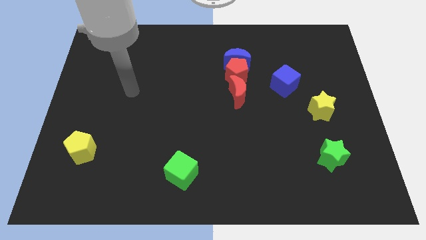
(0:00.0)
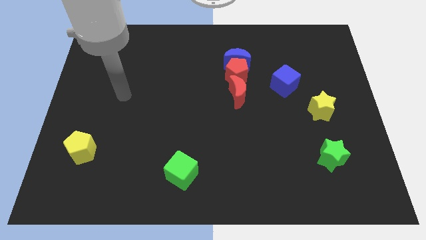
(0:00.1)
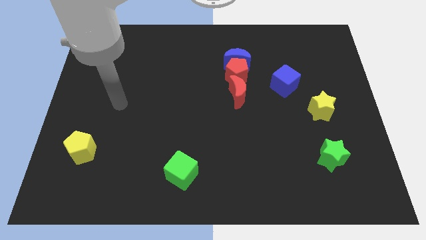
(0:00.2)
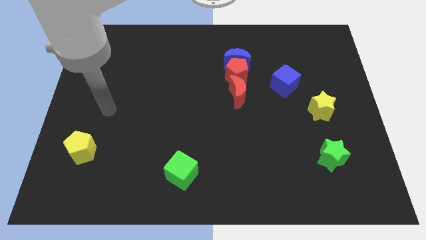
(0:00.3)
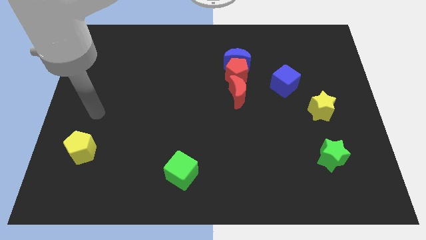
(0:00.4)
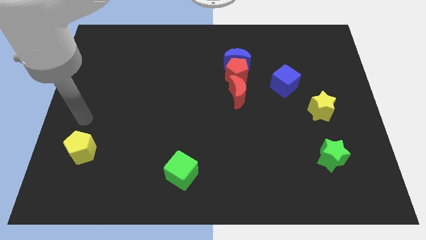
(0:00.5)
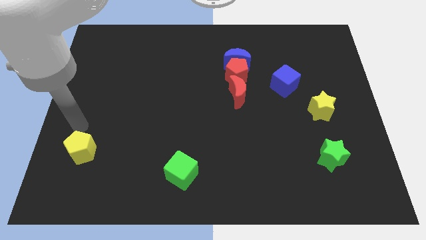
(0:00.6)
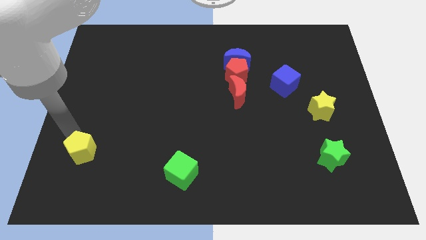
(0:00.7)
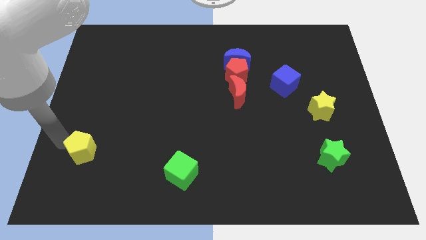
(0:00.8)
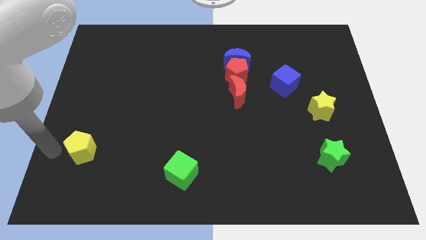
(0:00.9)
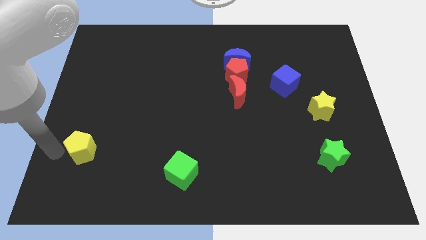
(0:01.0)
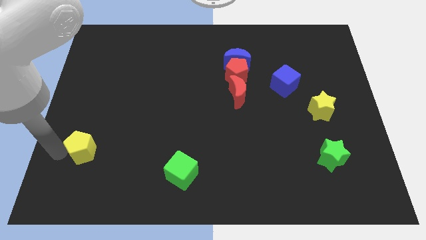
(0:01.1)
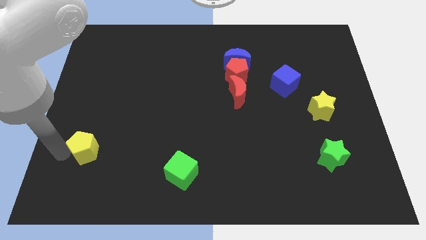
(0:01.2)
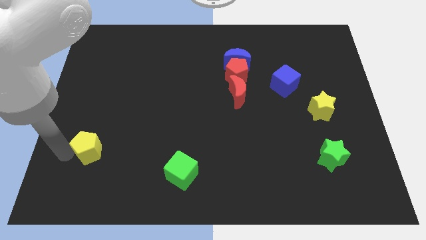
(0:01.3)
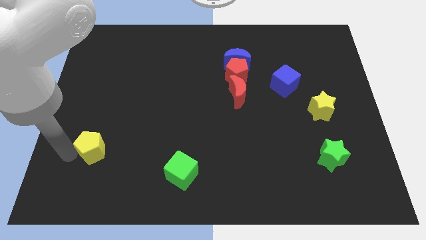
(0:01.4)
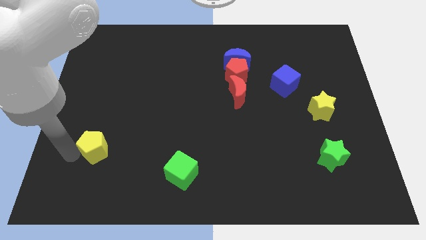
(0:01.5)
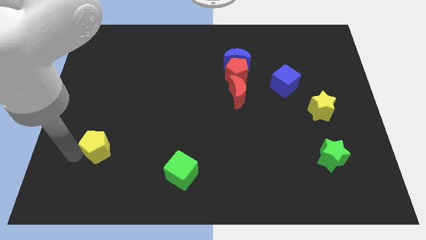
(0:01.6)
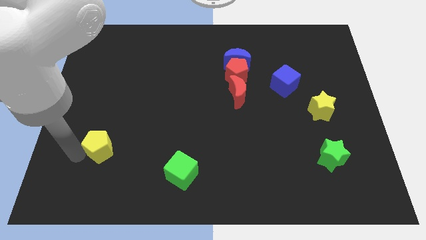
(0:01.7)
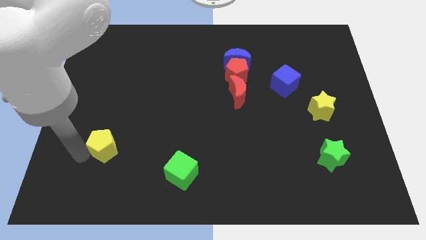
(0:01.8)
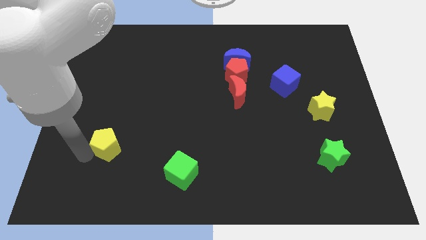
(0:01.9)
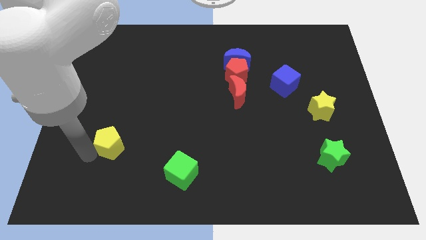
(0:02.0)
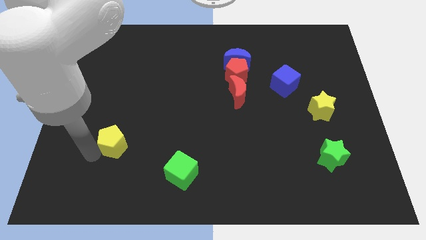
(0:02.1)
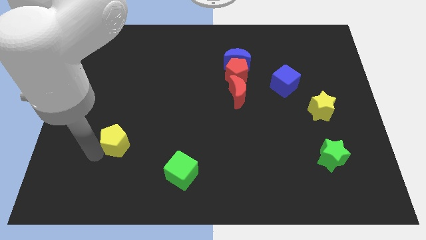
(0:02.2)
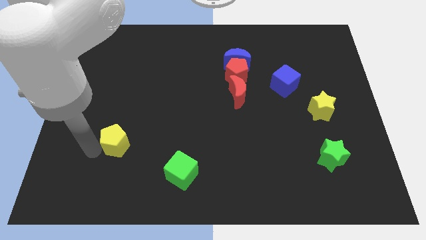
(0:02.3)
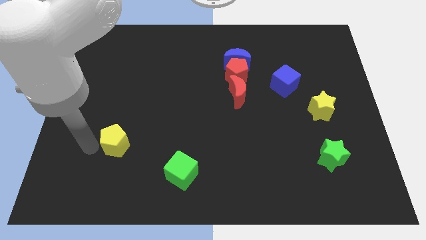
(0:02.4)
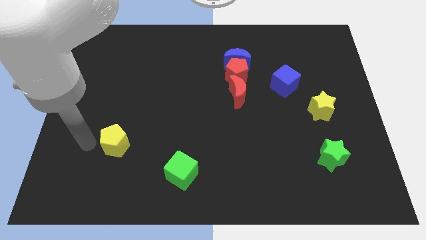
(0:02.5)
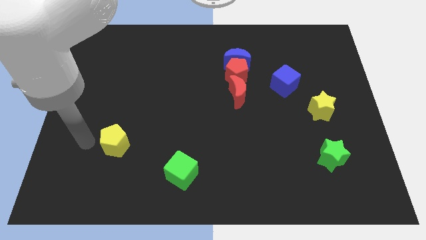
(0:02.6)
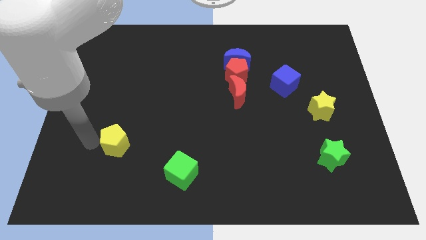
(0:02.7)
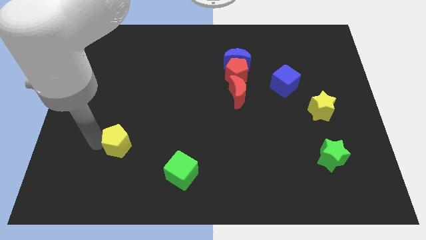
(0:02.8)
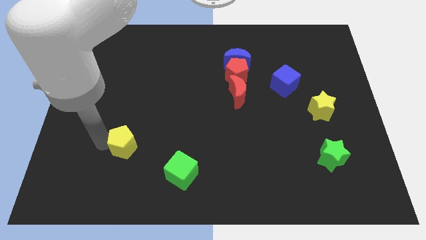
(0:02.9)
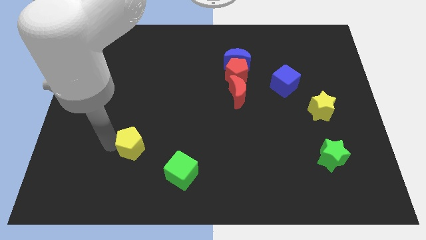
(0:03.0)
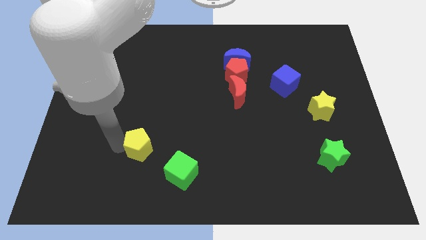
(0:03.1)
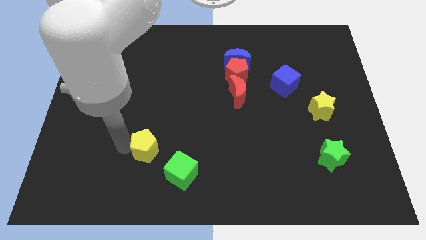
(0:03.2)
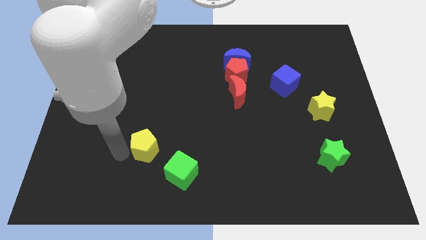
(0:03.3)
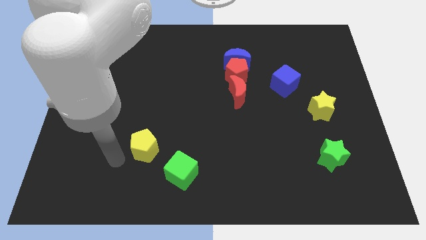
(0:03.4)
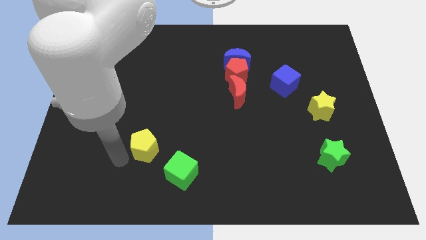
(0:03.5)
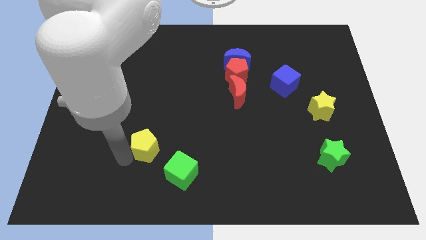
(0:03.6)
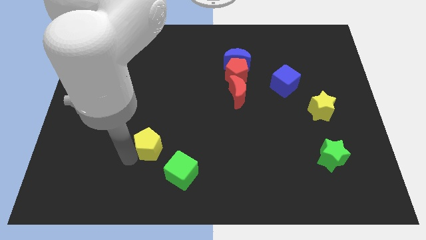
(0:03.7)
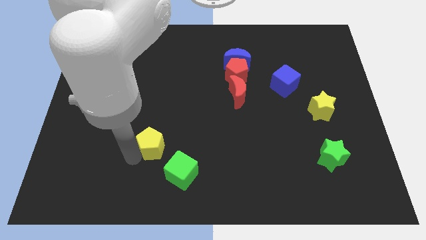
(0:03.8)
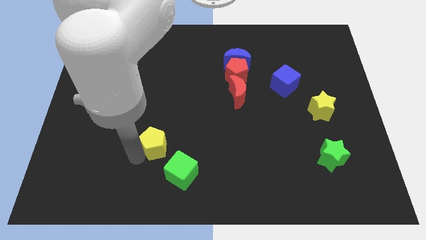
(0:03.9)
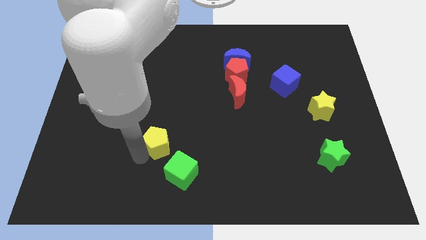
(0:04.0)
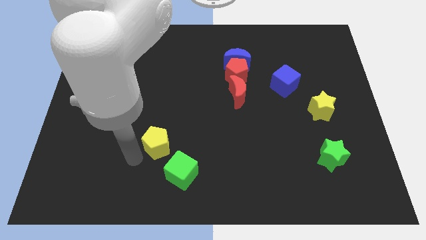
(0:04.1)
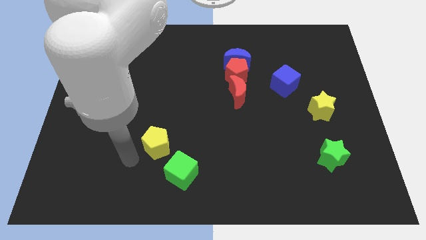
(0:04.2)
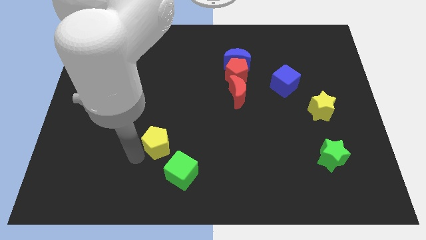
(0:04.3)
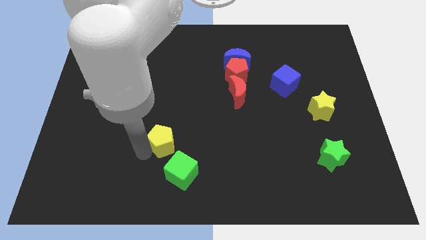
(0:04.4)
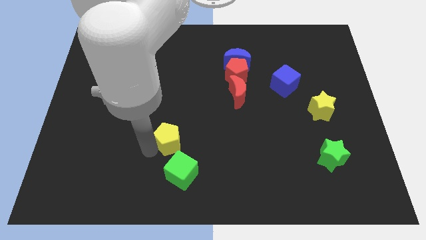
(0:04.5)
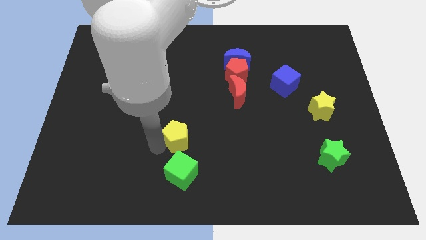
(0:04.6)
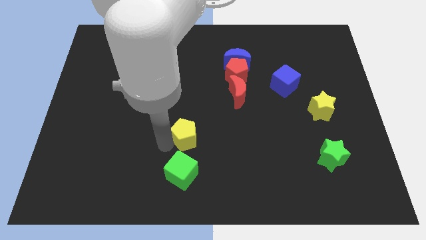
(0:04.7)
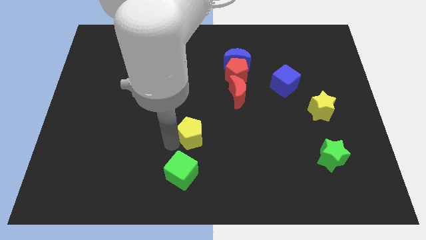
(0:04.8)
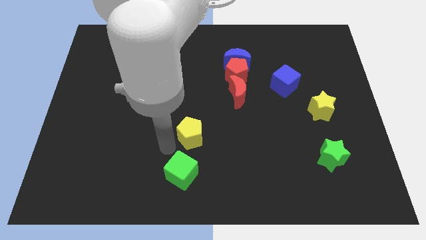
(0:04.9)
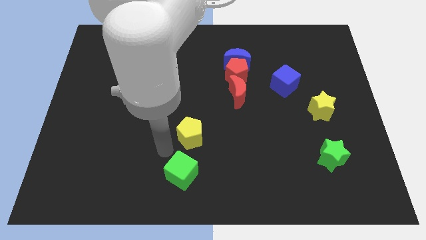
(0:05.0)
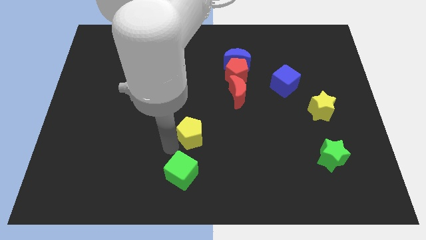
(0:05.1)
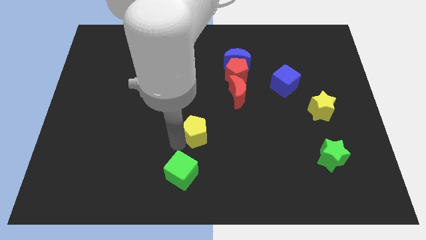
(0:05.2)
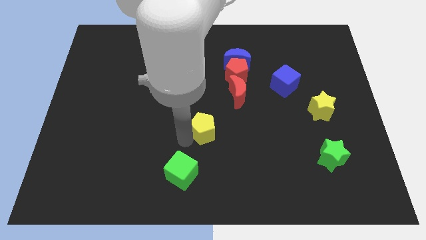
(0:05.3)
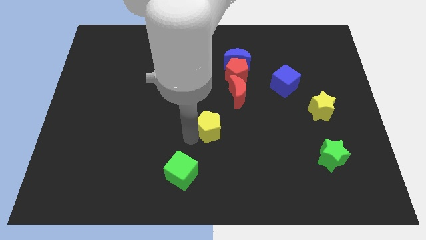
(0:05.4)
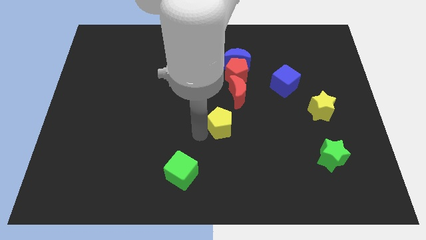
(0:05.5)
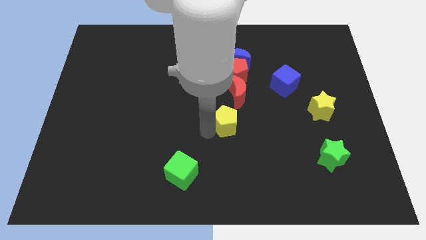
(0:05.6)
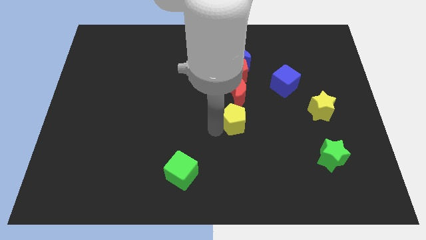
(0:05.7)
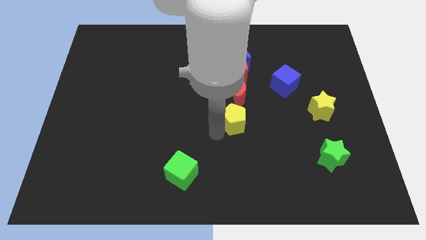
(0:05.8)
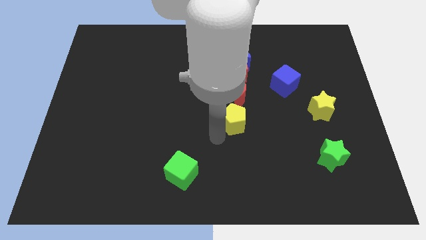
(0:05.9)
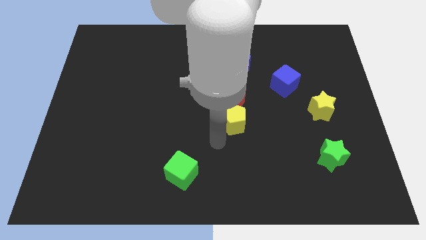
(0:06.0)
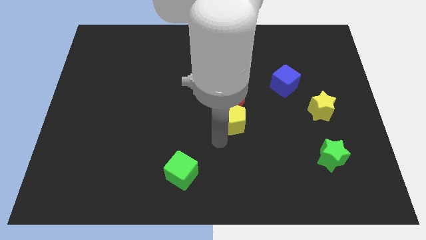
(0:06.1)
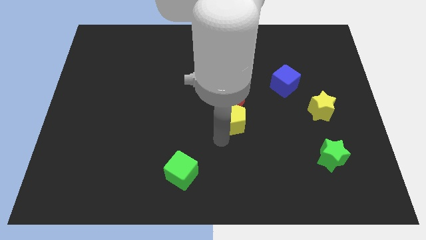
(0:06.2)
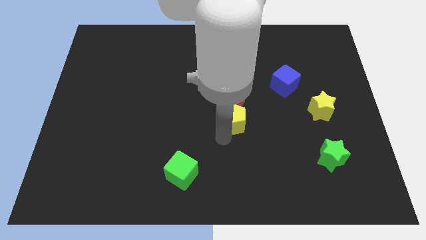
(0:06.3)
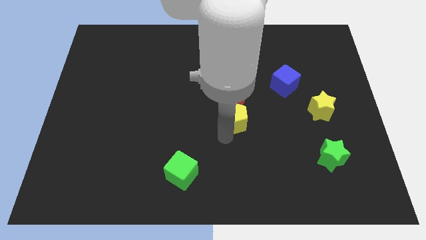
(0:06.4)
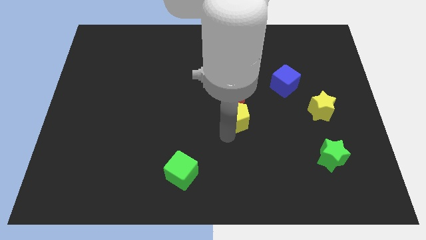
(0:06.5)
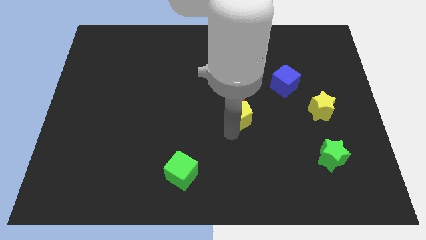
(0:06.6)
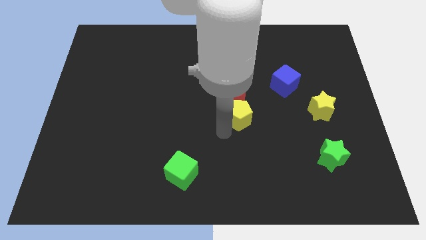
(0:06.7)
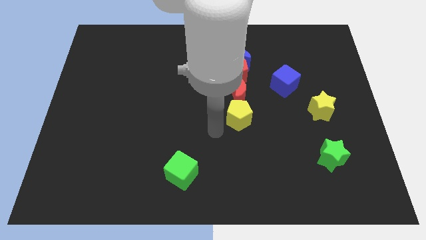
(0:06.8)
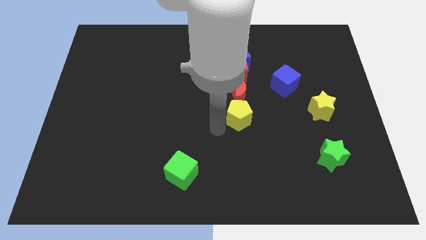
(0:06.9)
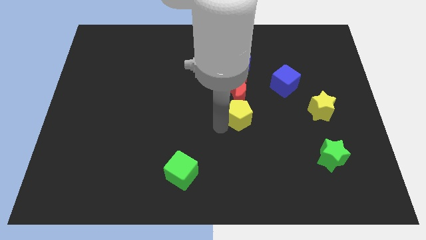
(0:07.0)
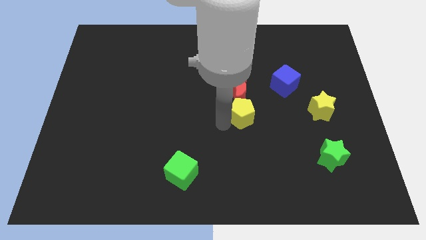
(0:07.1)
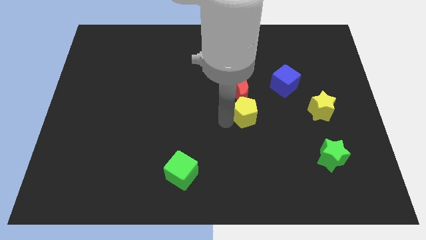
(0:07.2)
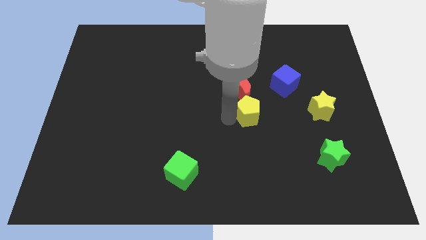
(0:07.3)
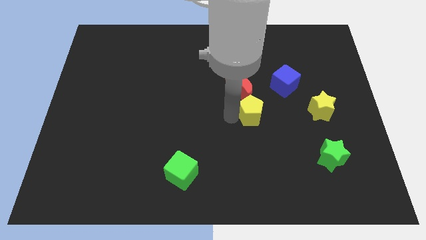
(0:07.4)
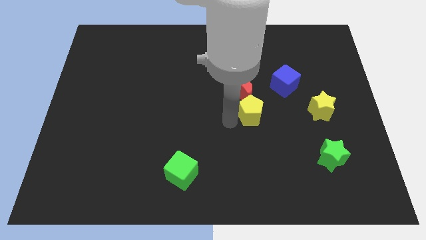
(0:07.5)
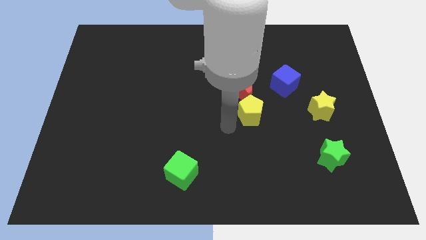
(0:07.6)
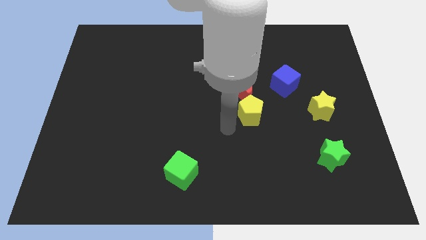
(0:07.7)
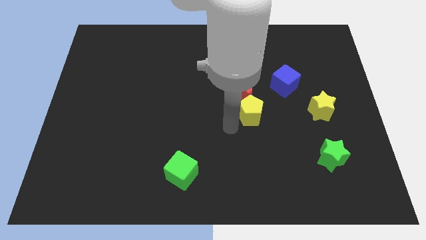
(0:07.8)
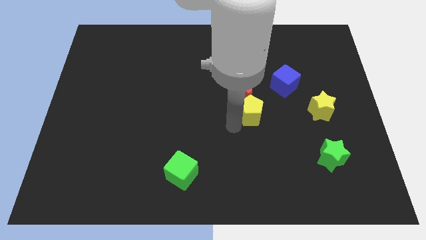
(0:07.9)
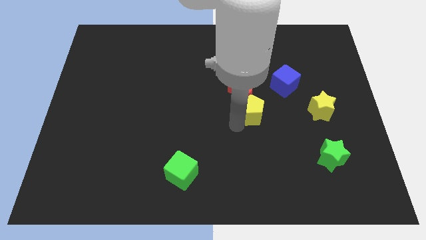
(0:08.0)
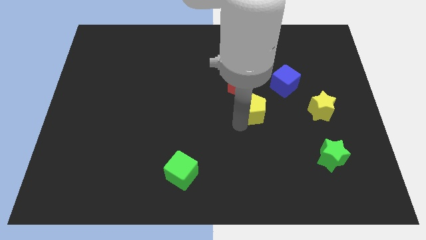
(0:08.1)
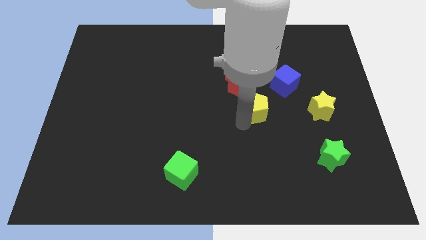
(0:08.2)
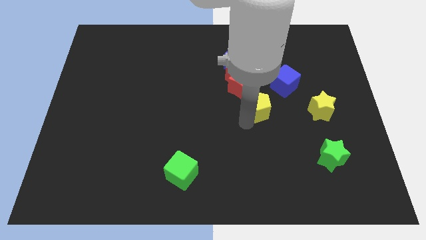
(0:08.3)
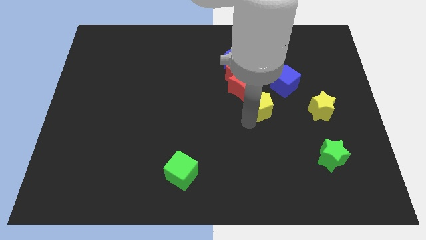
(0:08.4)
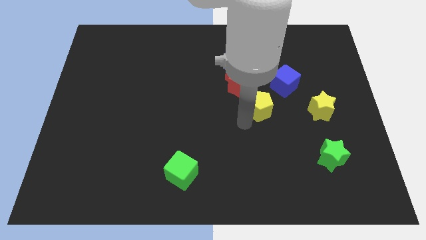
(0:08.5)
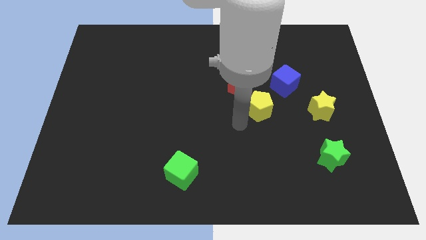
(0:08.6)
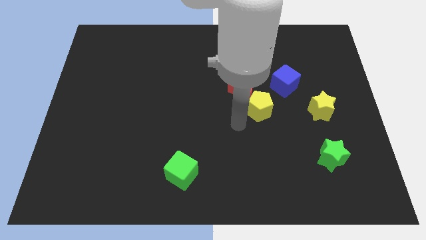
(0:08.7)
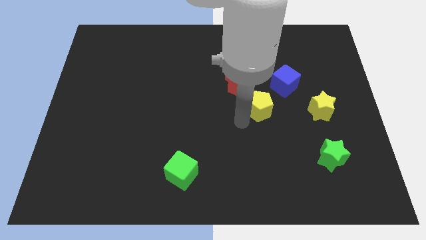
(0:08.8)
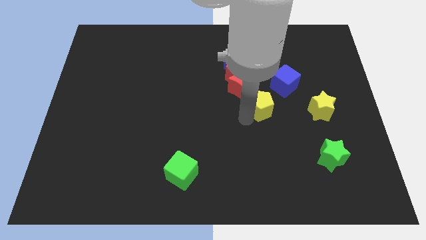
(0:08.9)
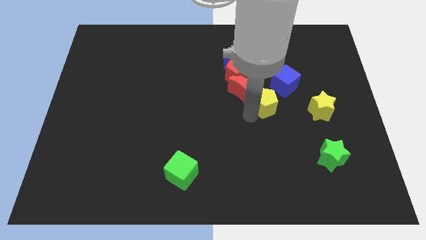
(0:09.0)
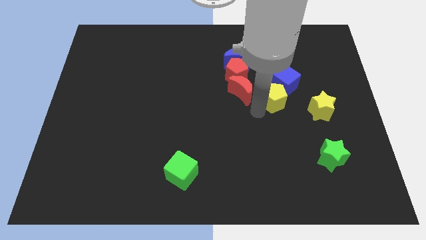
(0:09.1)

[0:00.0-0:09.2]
put the yellow pentagon next to the blue cube
